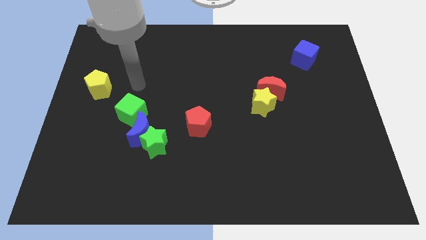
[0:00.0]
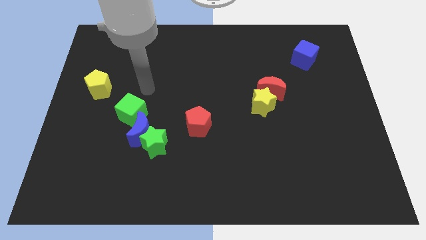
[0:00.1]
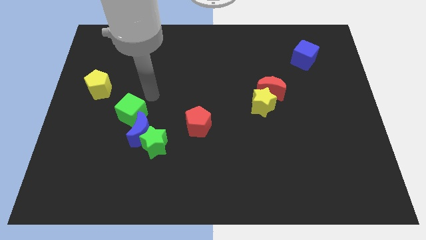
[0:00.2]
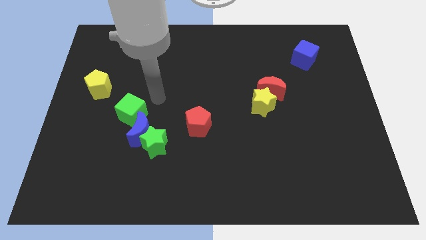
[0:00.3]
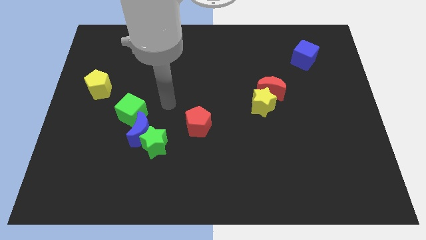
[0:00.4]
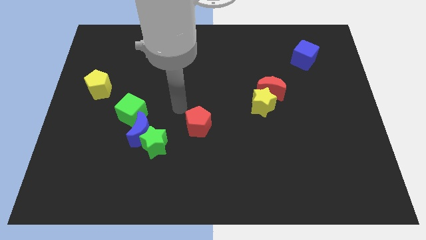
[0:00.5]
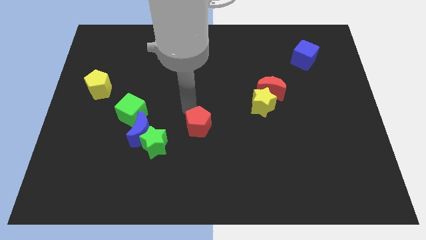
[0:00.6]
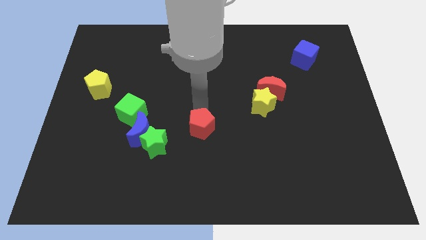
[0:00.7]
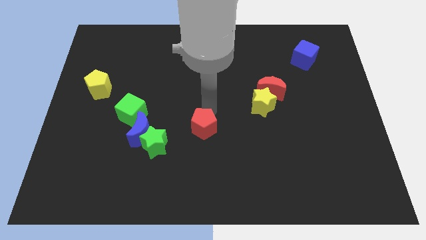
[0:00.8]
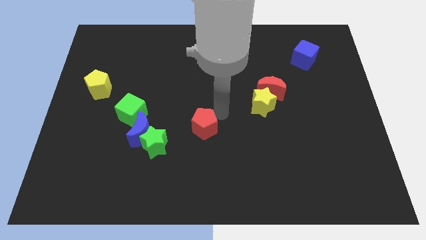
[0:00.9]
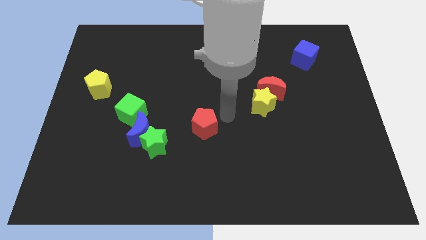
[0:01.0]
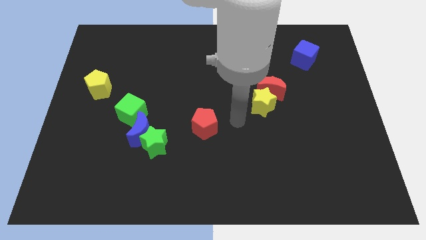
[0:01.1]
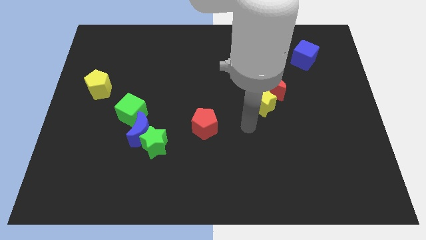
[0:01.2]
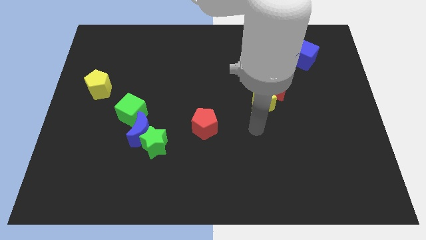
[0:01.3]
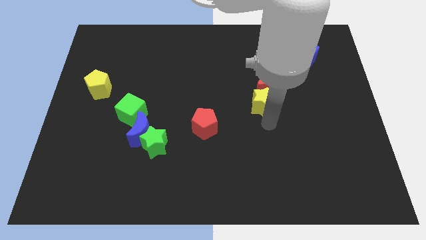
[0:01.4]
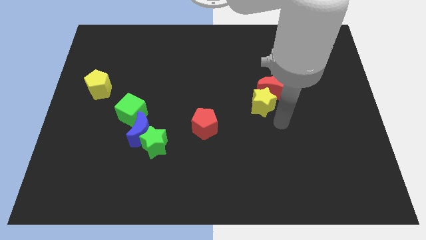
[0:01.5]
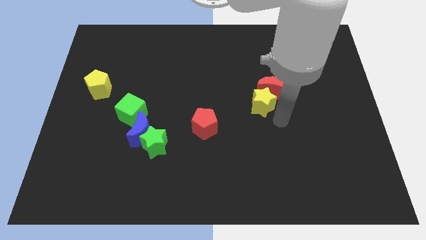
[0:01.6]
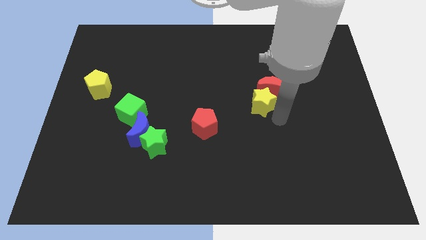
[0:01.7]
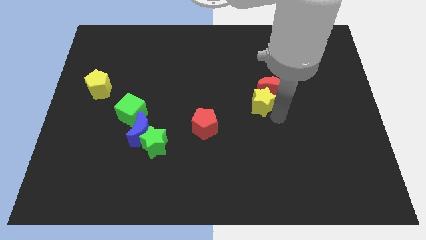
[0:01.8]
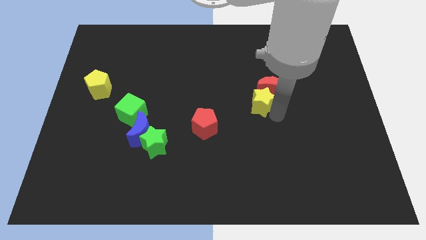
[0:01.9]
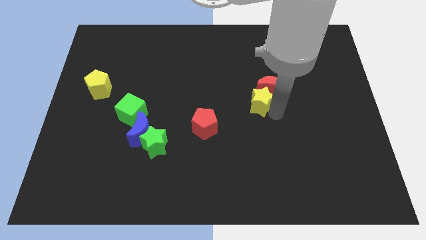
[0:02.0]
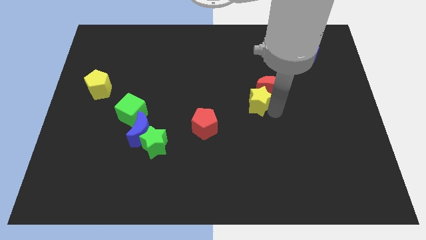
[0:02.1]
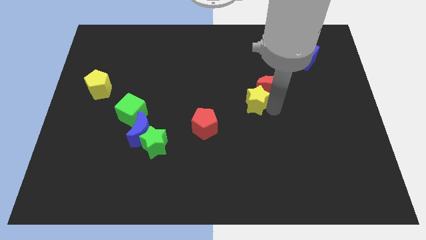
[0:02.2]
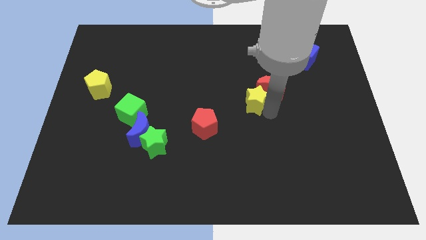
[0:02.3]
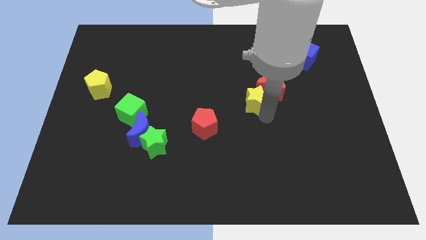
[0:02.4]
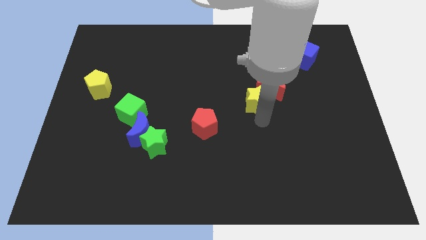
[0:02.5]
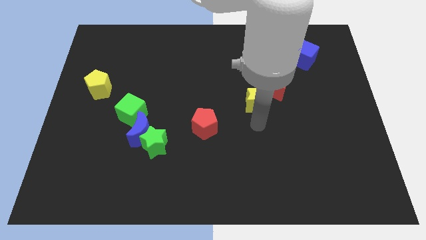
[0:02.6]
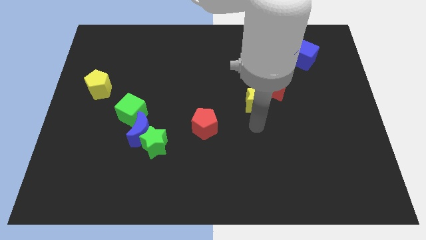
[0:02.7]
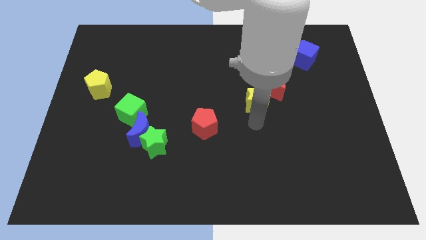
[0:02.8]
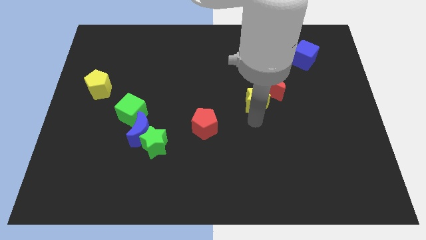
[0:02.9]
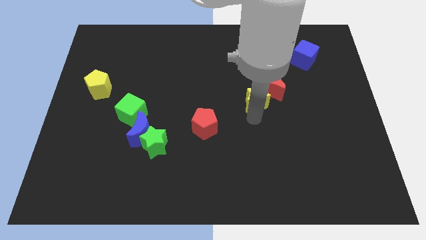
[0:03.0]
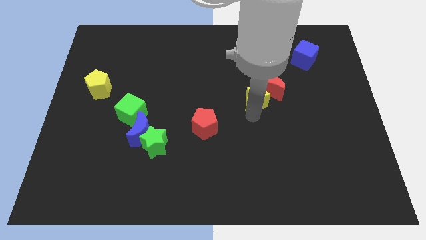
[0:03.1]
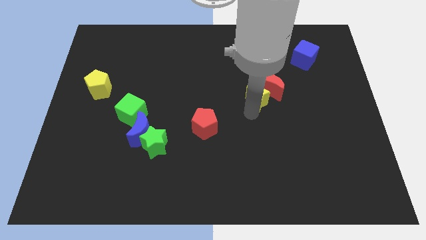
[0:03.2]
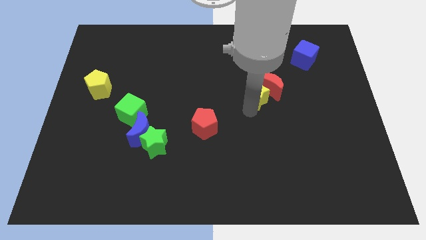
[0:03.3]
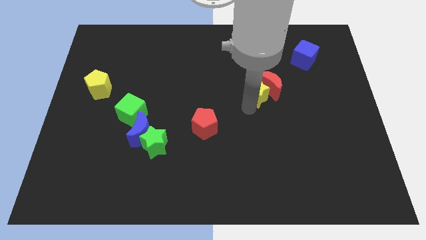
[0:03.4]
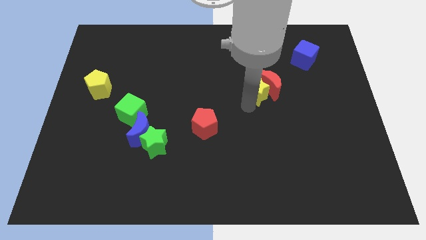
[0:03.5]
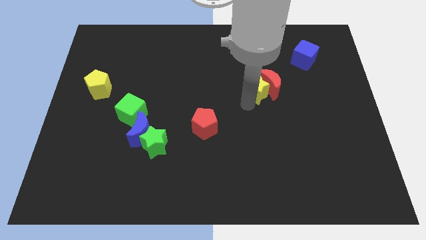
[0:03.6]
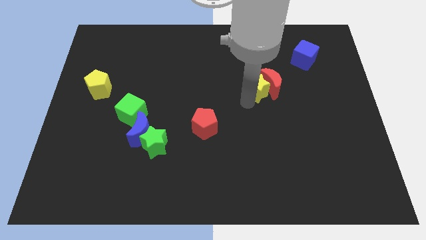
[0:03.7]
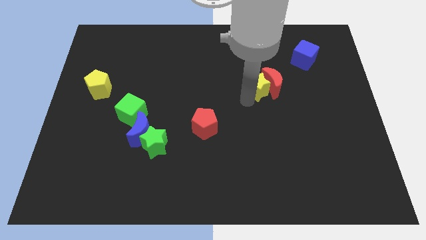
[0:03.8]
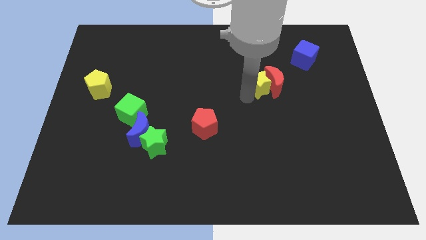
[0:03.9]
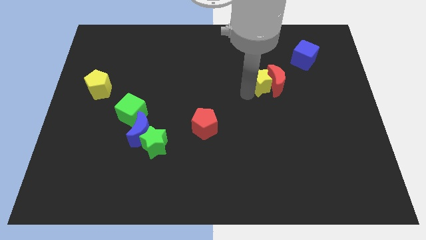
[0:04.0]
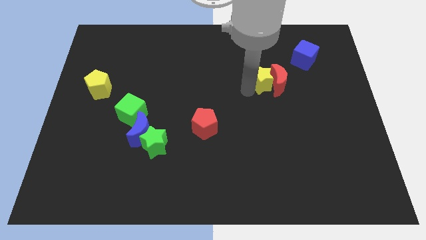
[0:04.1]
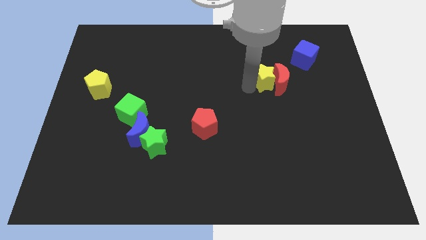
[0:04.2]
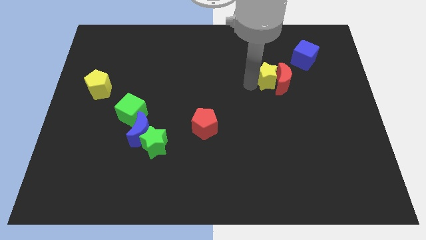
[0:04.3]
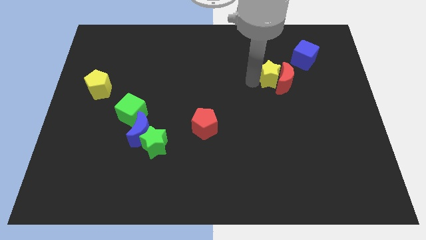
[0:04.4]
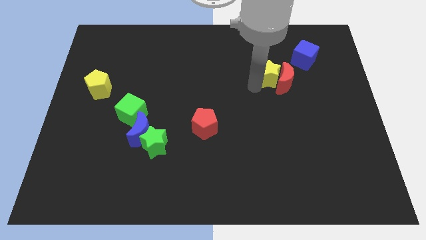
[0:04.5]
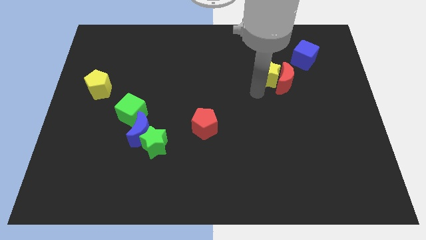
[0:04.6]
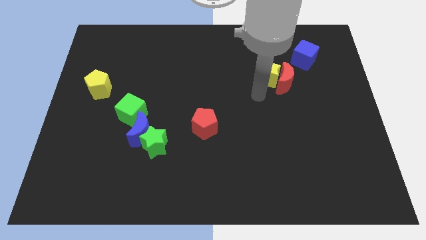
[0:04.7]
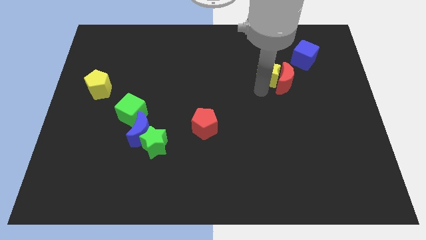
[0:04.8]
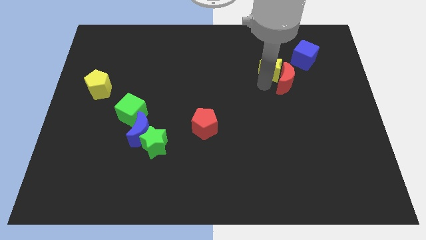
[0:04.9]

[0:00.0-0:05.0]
slide the yellow star to the top side of the red moon

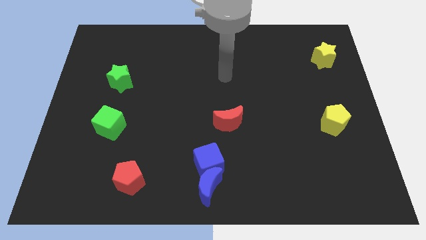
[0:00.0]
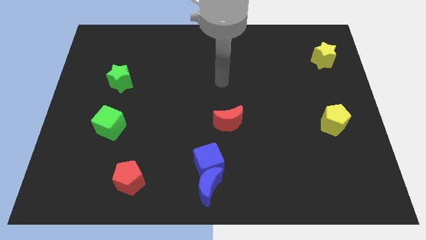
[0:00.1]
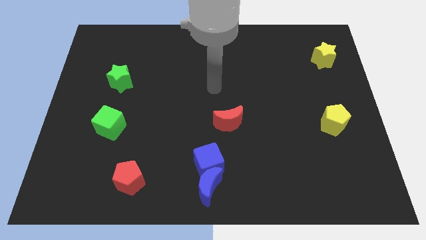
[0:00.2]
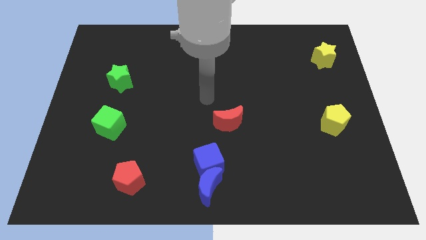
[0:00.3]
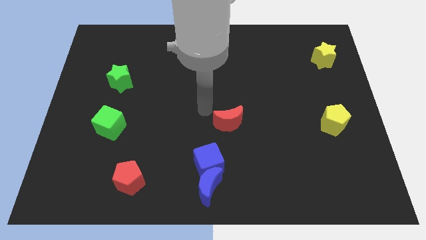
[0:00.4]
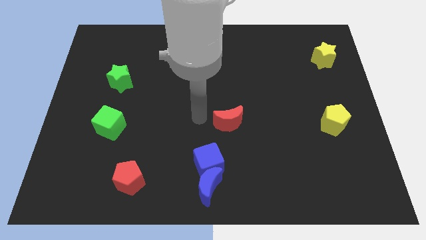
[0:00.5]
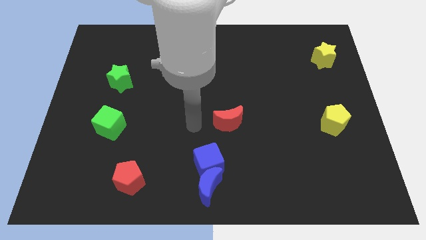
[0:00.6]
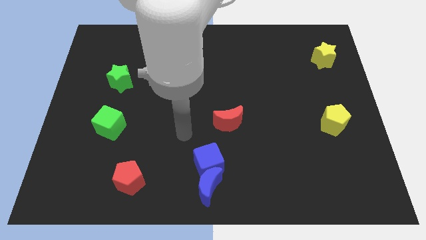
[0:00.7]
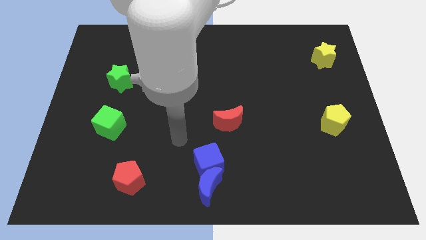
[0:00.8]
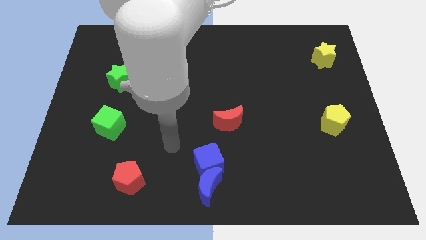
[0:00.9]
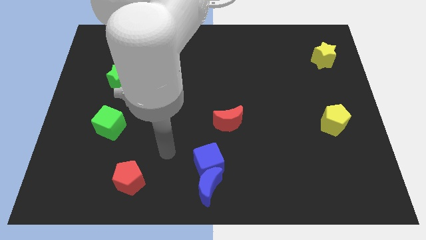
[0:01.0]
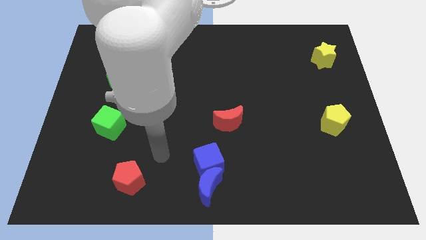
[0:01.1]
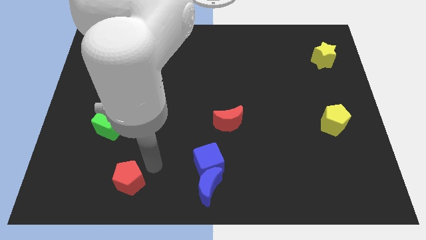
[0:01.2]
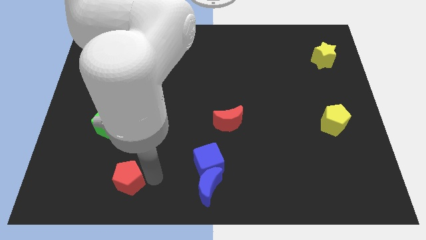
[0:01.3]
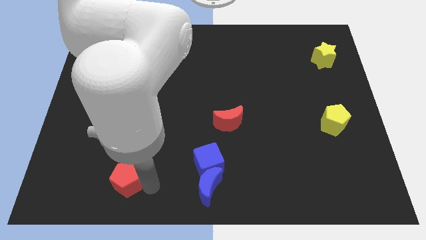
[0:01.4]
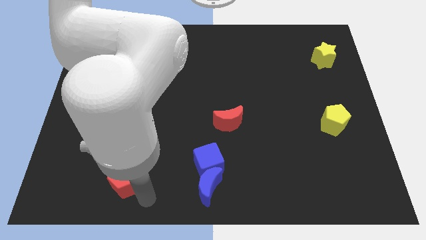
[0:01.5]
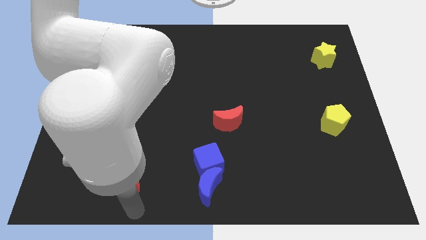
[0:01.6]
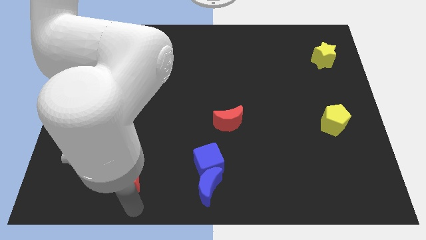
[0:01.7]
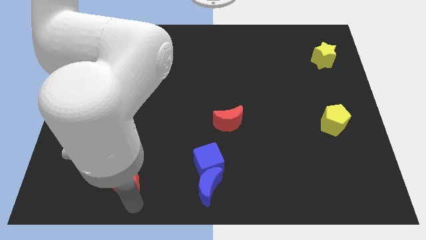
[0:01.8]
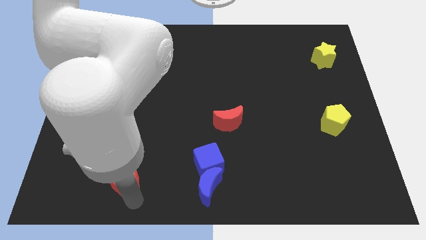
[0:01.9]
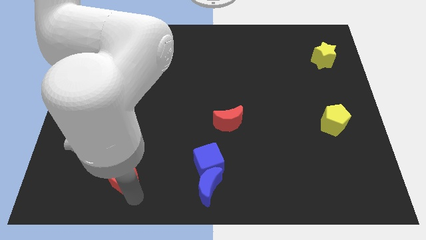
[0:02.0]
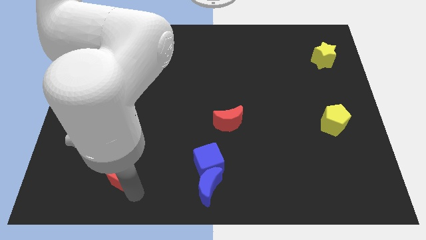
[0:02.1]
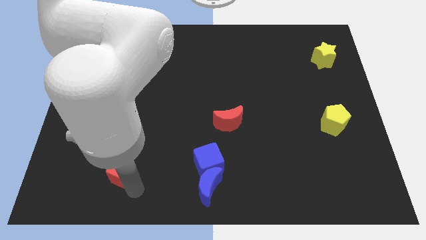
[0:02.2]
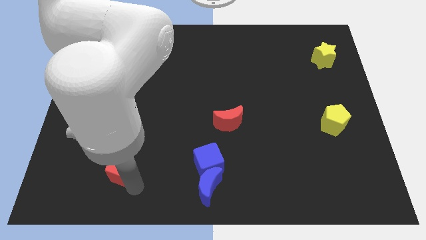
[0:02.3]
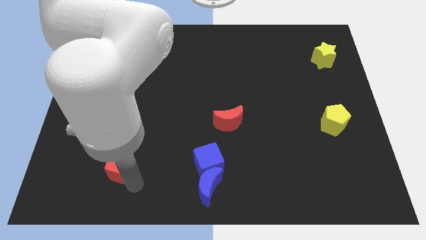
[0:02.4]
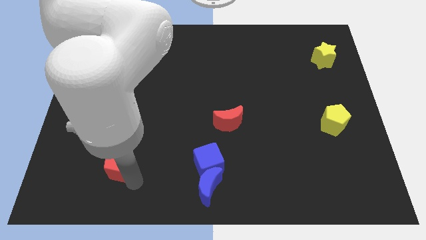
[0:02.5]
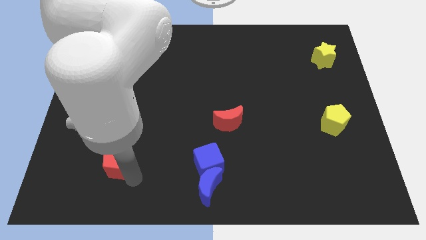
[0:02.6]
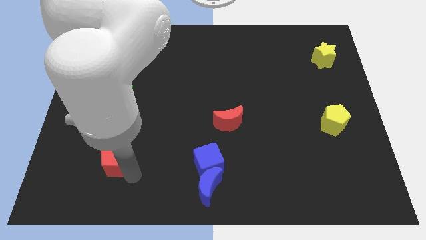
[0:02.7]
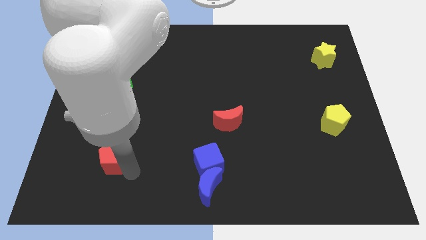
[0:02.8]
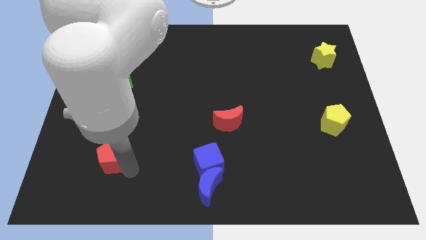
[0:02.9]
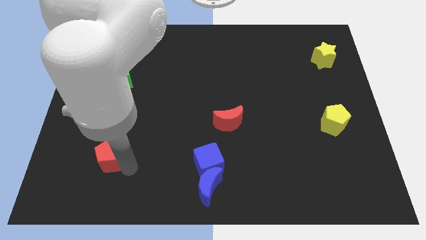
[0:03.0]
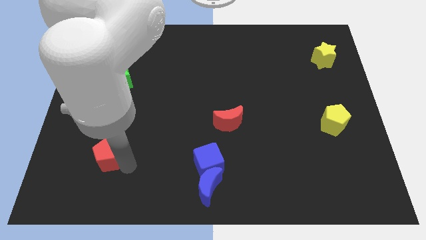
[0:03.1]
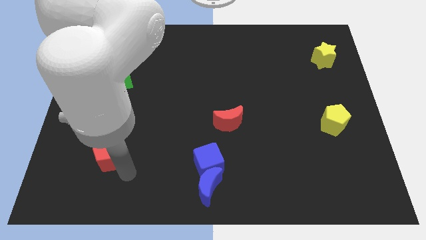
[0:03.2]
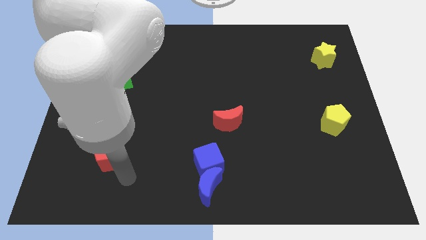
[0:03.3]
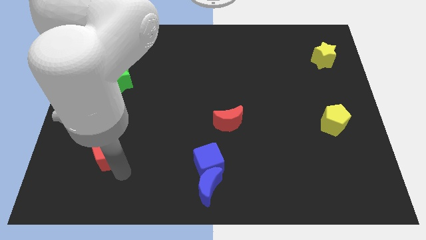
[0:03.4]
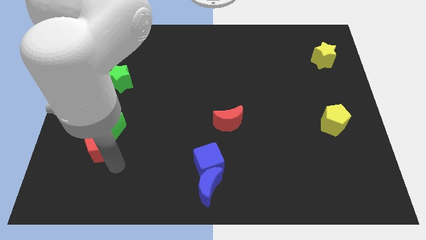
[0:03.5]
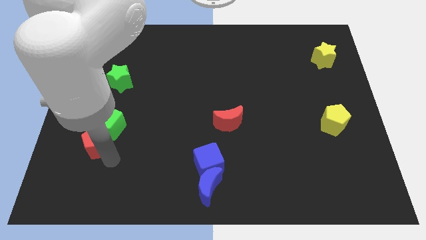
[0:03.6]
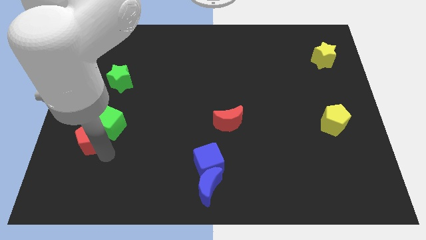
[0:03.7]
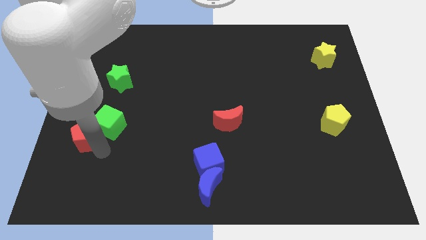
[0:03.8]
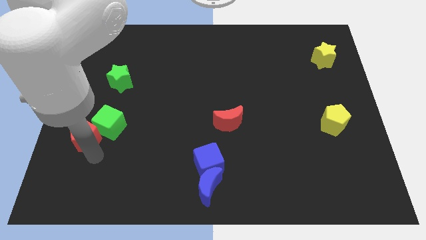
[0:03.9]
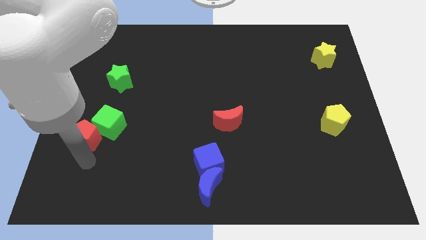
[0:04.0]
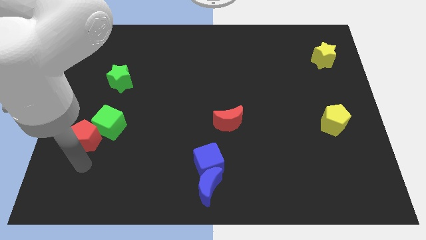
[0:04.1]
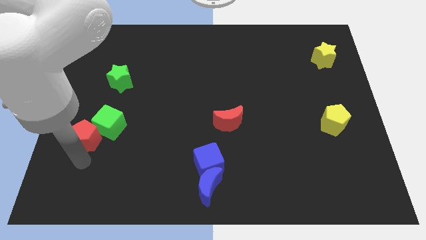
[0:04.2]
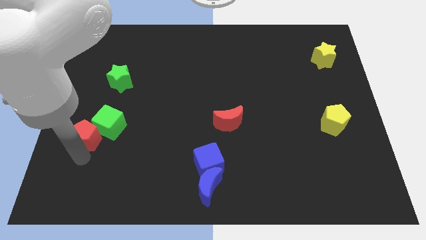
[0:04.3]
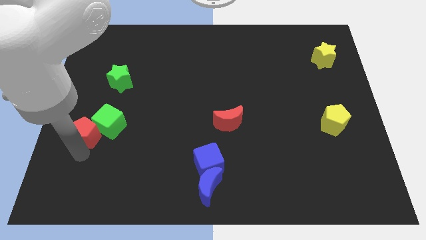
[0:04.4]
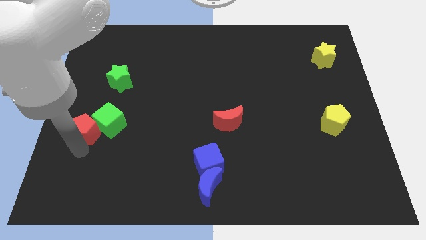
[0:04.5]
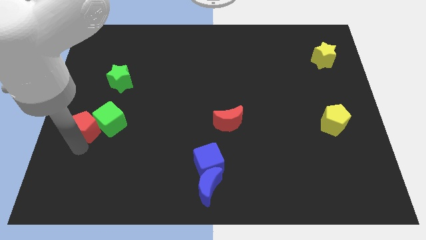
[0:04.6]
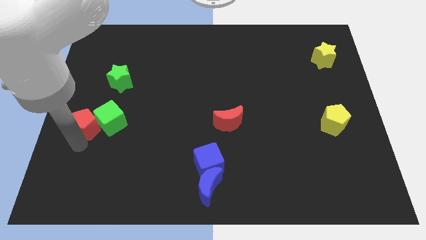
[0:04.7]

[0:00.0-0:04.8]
put the red pentagon diagonally up and to the left of the green cube
